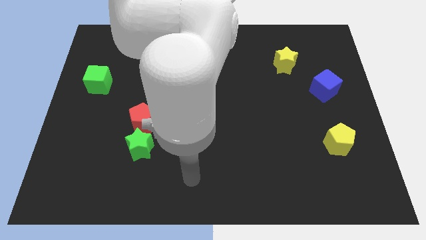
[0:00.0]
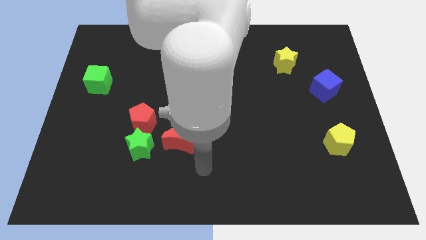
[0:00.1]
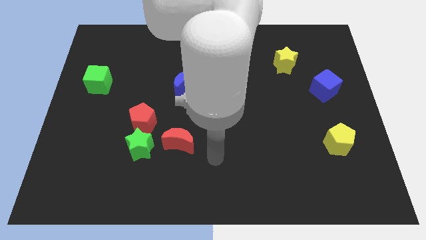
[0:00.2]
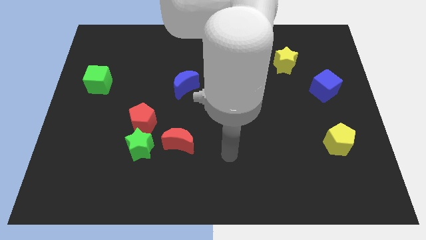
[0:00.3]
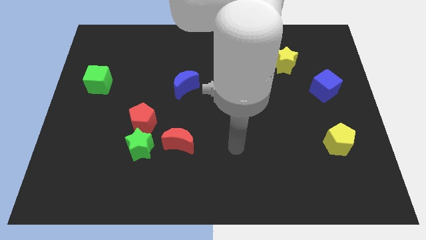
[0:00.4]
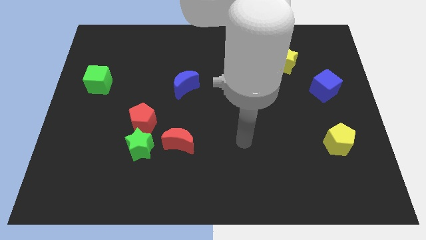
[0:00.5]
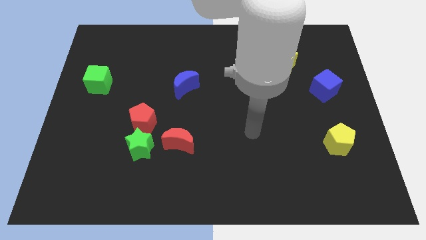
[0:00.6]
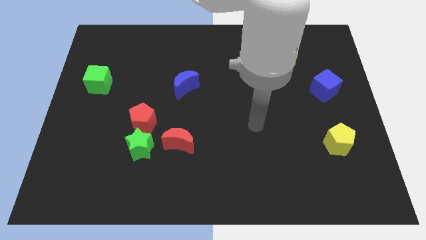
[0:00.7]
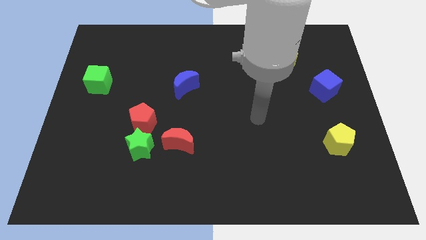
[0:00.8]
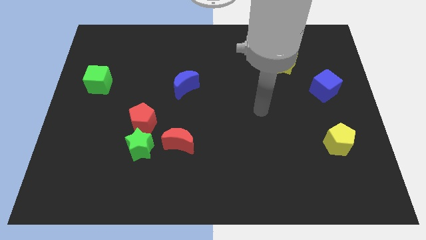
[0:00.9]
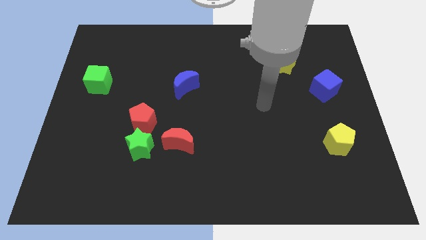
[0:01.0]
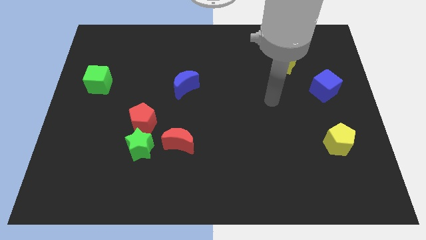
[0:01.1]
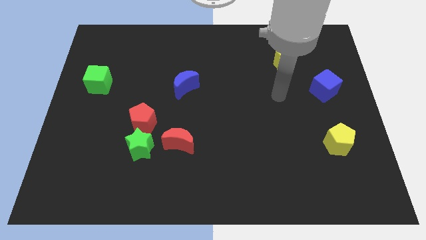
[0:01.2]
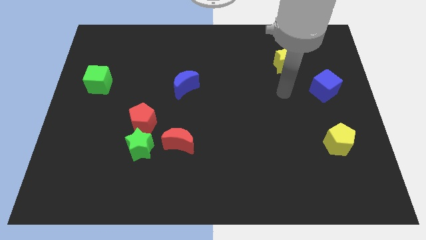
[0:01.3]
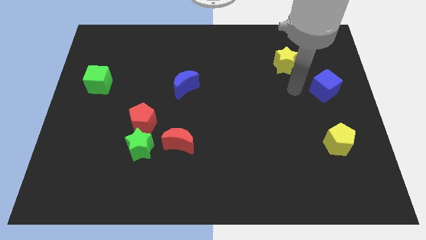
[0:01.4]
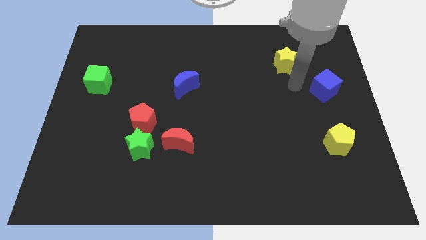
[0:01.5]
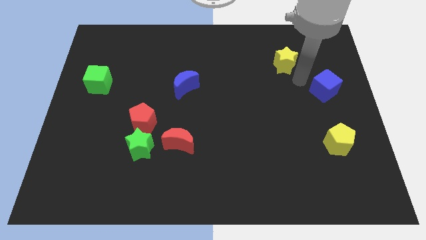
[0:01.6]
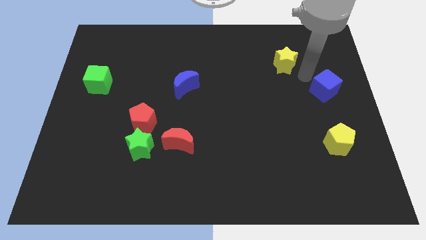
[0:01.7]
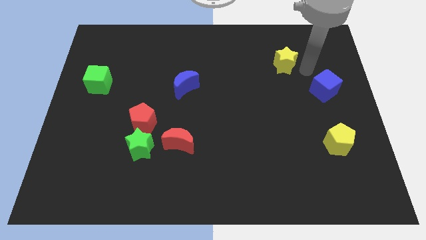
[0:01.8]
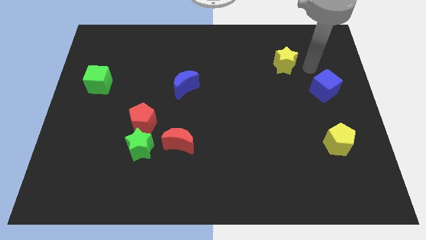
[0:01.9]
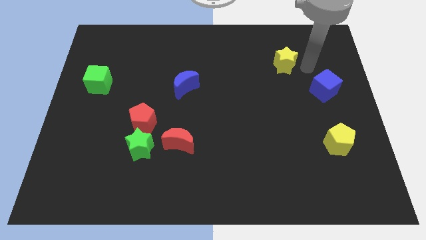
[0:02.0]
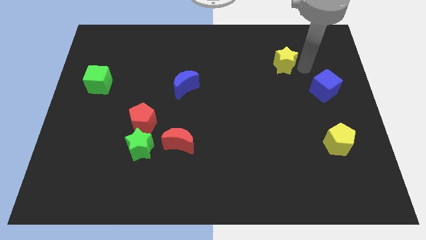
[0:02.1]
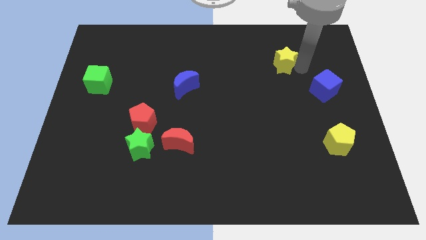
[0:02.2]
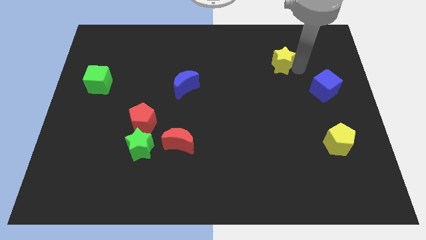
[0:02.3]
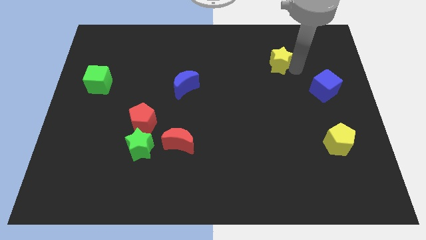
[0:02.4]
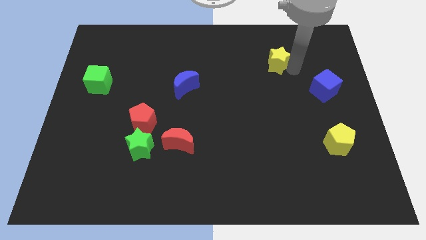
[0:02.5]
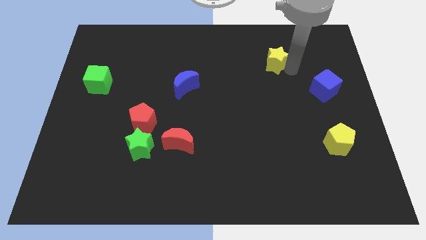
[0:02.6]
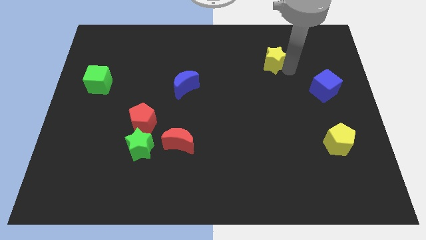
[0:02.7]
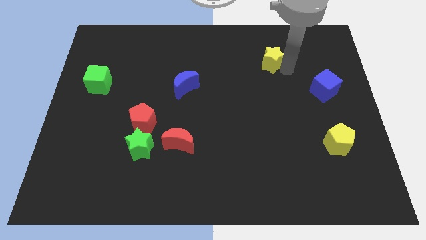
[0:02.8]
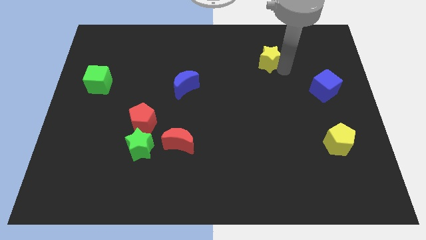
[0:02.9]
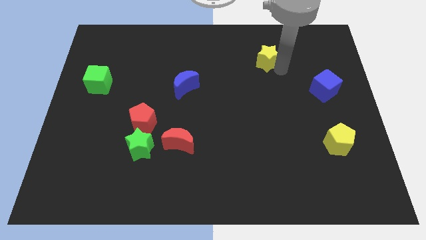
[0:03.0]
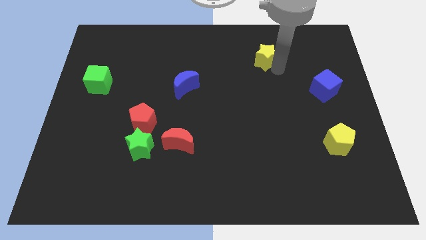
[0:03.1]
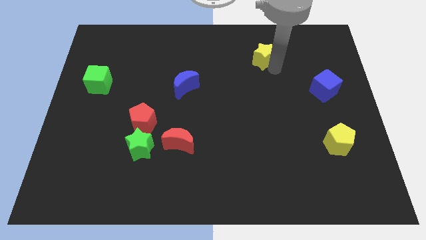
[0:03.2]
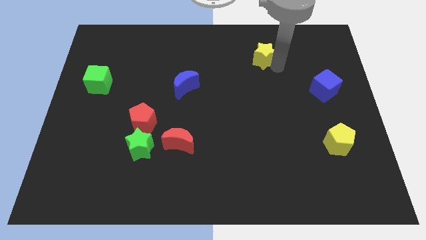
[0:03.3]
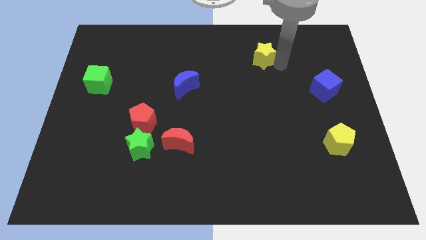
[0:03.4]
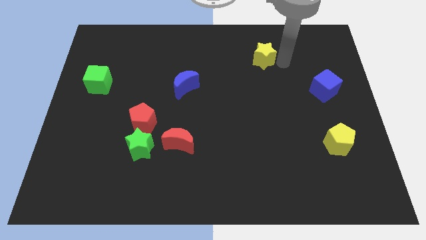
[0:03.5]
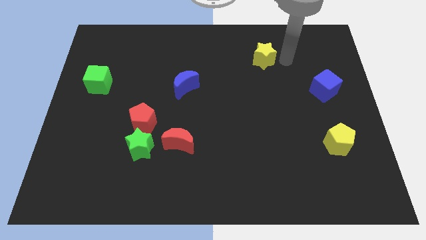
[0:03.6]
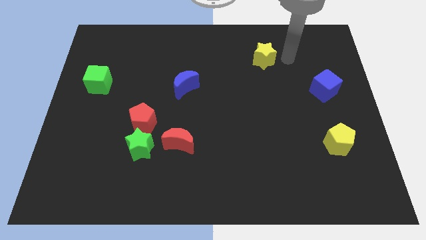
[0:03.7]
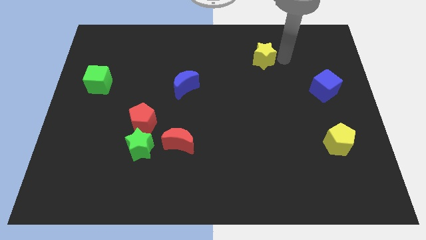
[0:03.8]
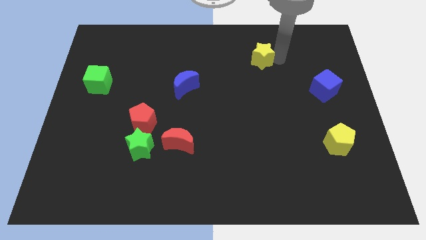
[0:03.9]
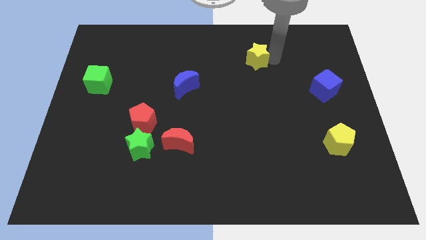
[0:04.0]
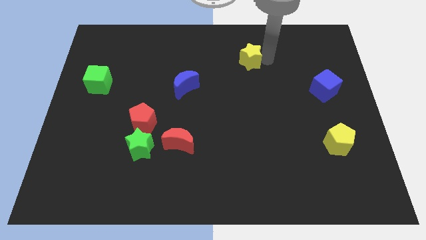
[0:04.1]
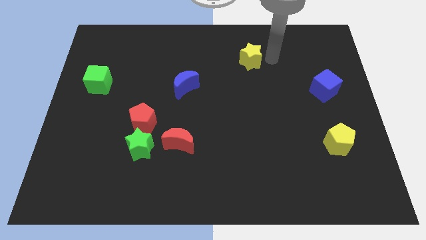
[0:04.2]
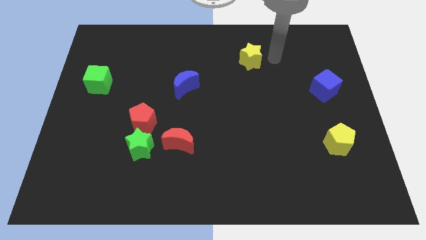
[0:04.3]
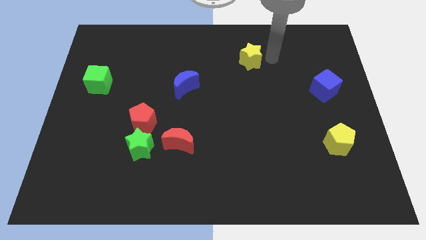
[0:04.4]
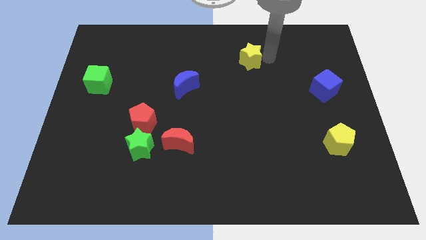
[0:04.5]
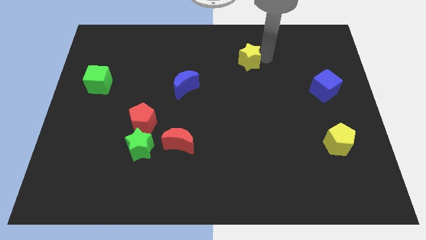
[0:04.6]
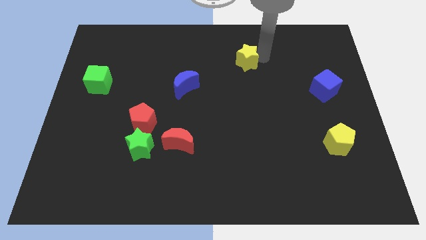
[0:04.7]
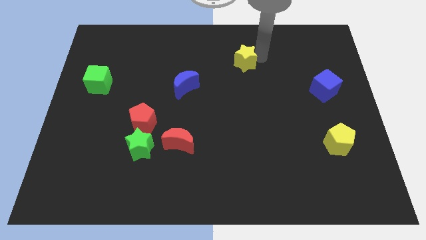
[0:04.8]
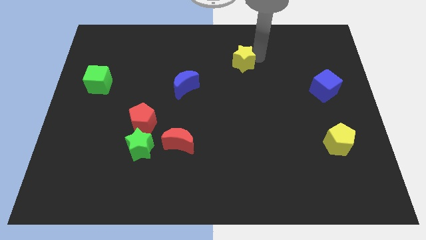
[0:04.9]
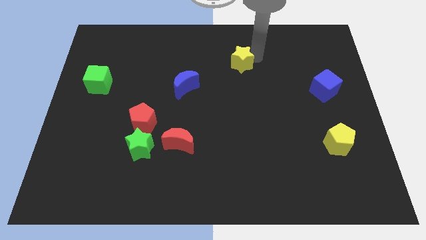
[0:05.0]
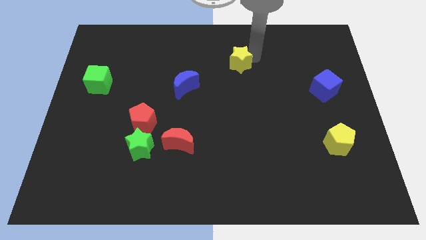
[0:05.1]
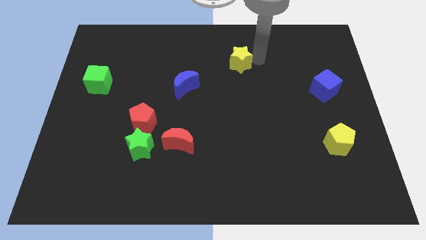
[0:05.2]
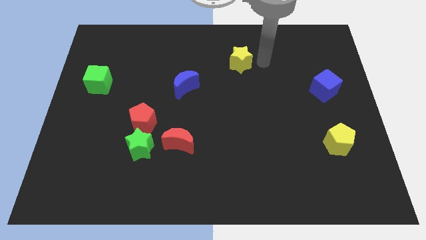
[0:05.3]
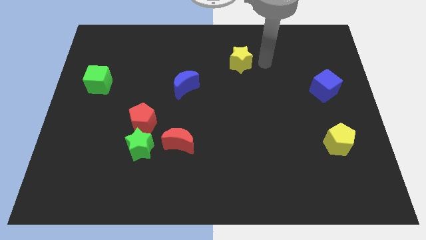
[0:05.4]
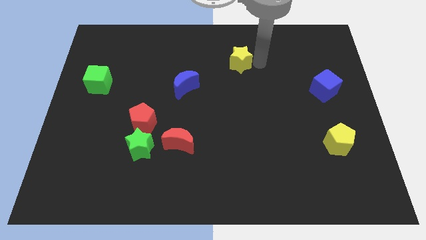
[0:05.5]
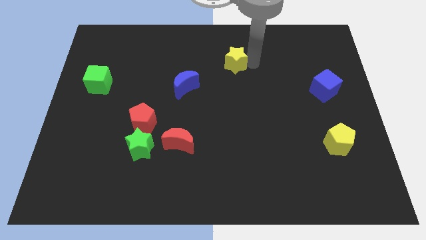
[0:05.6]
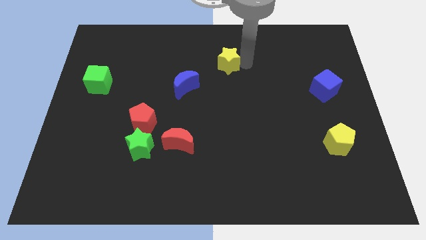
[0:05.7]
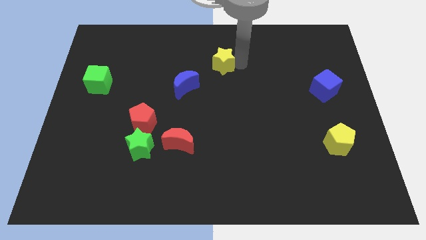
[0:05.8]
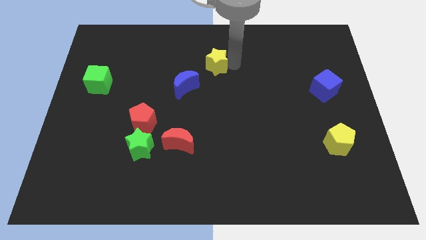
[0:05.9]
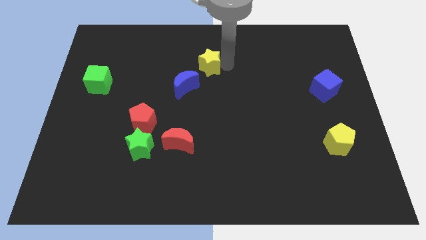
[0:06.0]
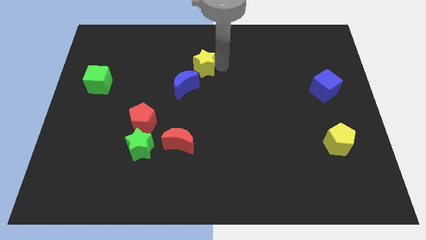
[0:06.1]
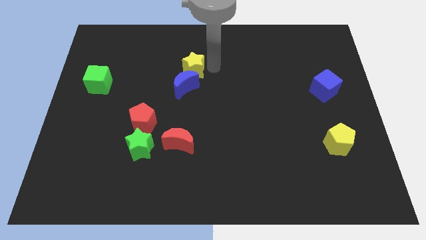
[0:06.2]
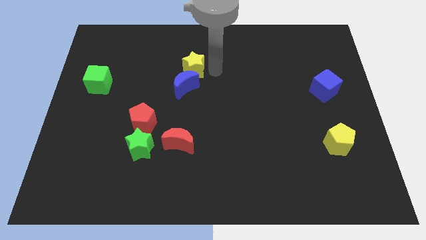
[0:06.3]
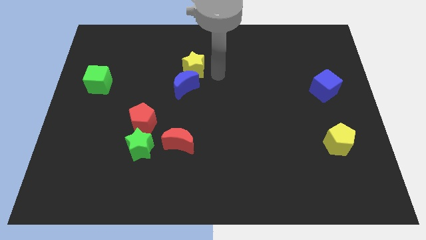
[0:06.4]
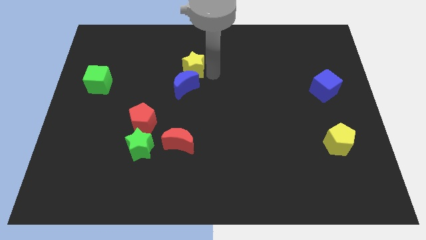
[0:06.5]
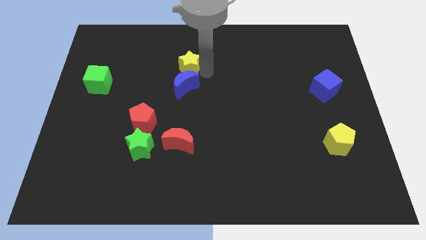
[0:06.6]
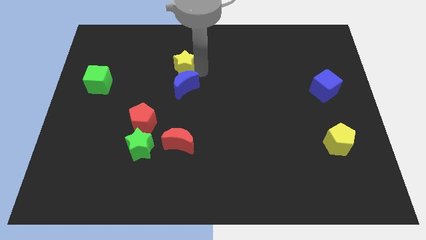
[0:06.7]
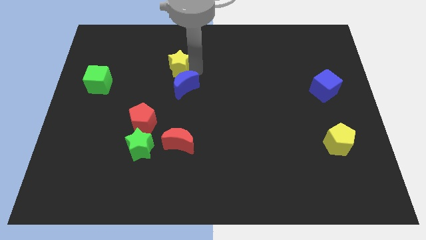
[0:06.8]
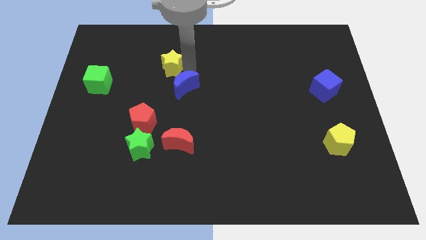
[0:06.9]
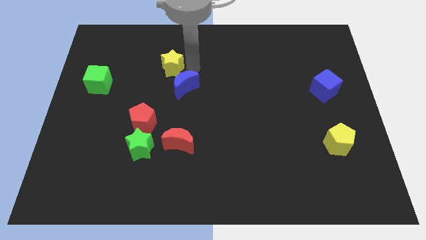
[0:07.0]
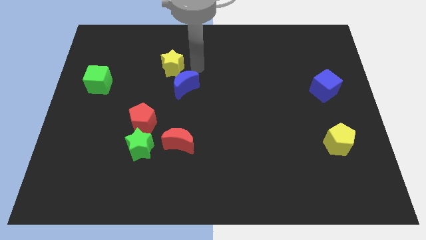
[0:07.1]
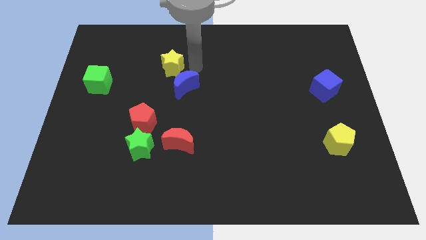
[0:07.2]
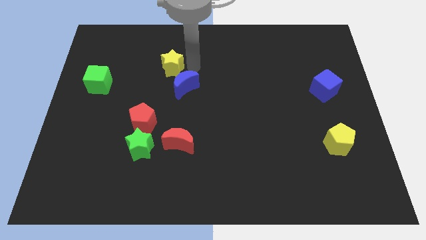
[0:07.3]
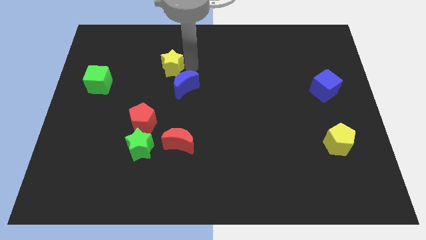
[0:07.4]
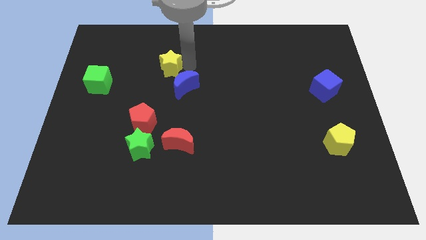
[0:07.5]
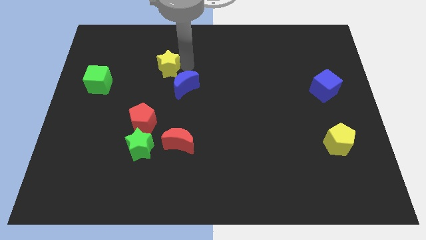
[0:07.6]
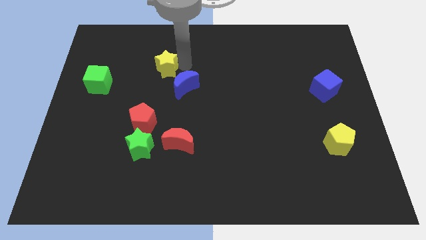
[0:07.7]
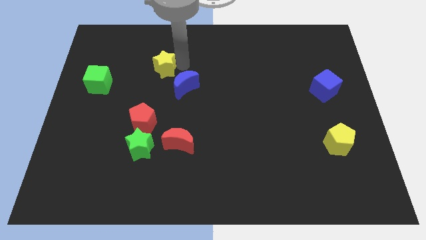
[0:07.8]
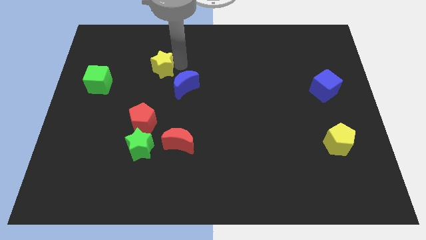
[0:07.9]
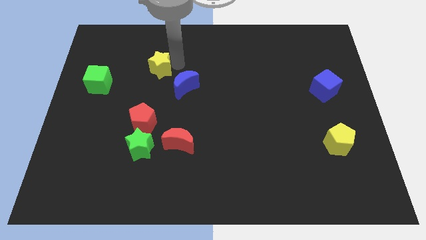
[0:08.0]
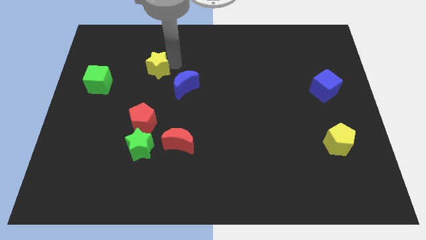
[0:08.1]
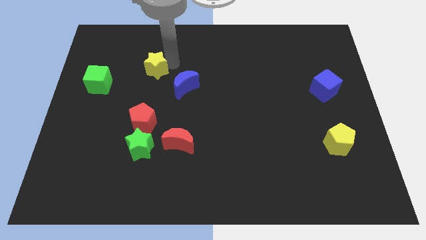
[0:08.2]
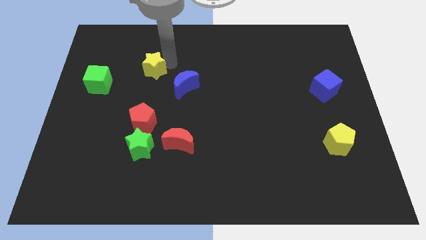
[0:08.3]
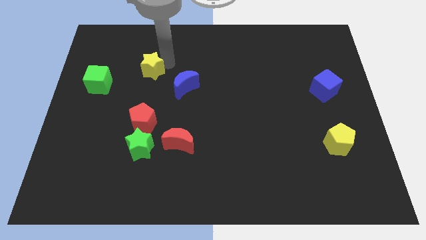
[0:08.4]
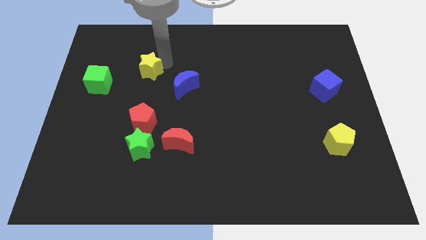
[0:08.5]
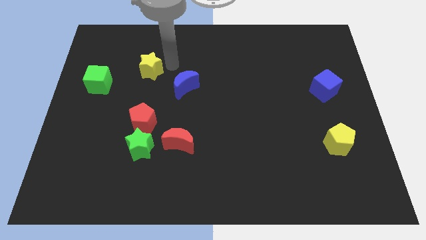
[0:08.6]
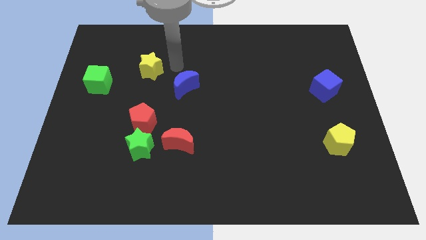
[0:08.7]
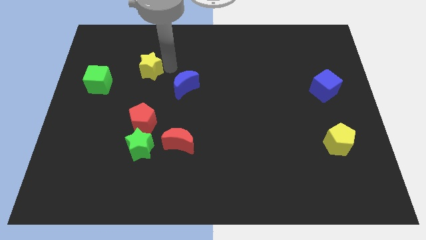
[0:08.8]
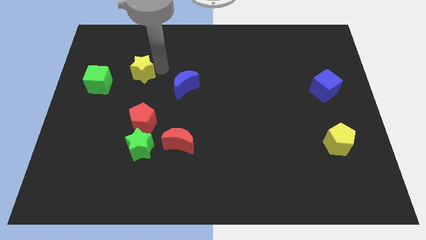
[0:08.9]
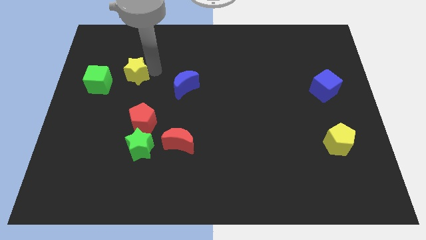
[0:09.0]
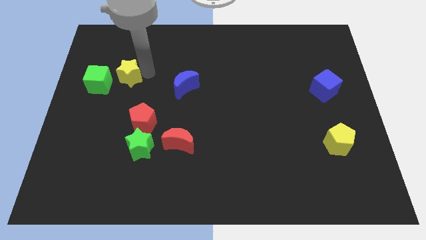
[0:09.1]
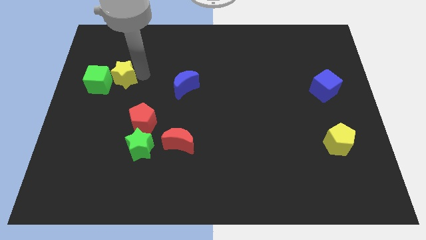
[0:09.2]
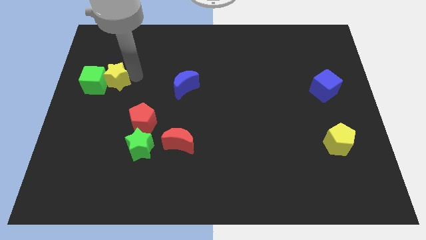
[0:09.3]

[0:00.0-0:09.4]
move the yellow star towards the green cube
